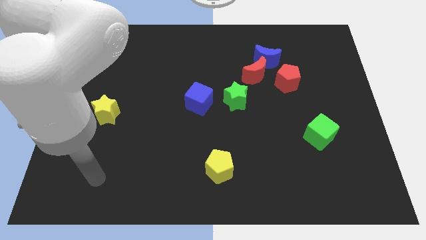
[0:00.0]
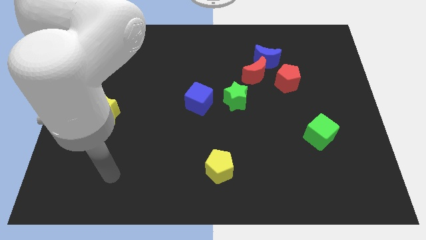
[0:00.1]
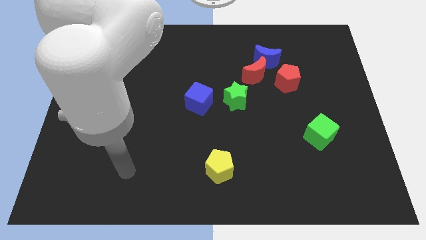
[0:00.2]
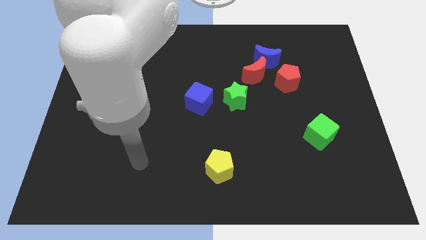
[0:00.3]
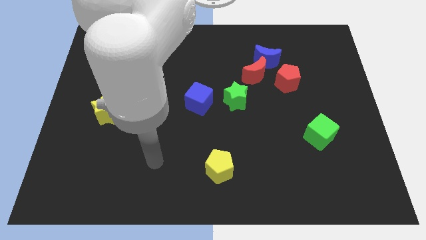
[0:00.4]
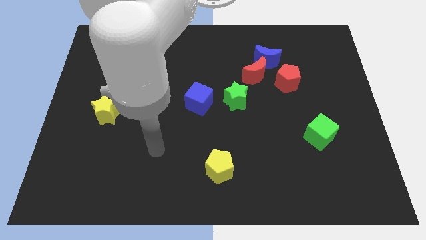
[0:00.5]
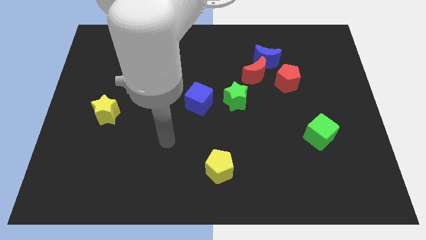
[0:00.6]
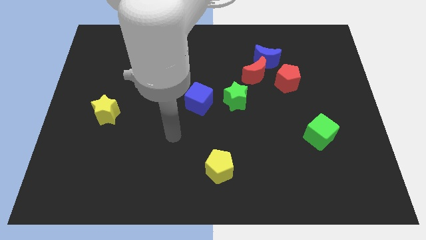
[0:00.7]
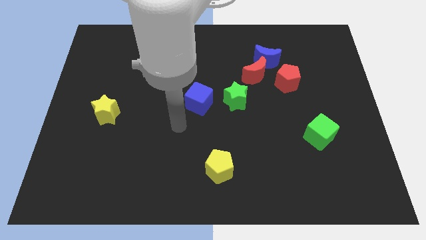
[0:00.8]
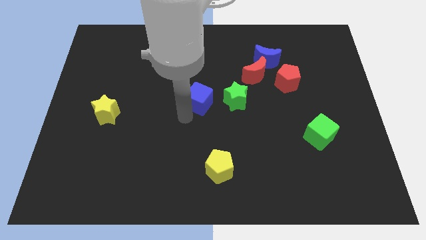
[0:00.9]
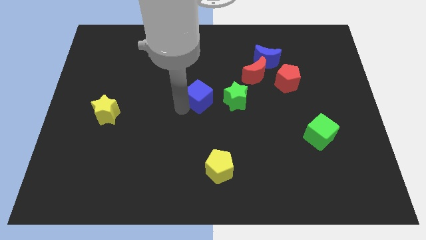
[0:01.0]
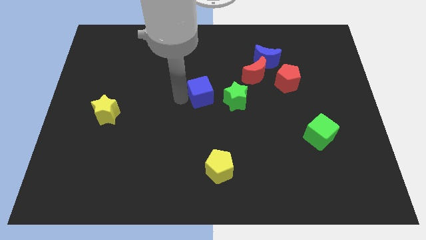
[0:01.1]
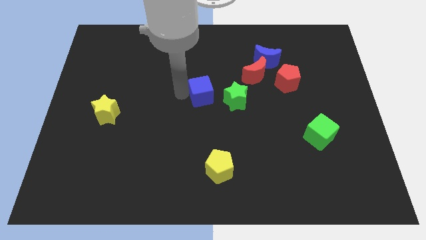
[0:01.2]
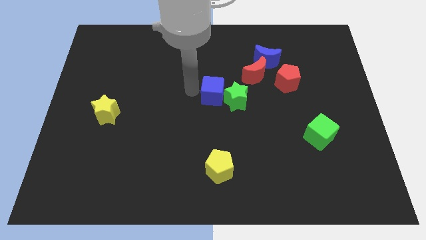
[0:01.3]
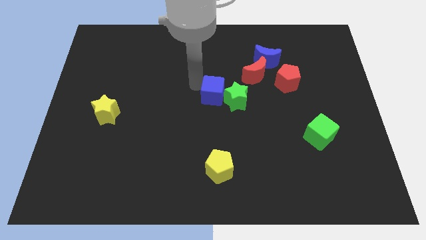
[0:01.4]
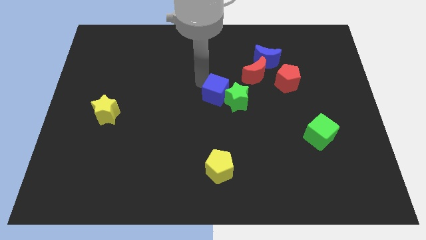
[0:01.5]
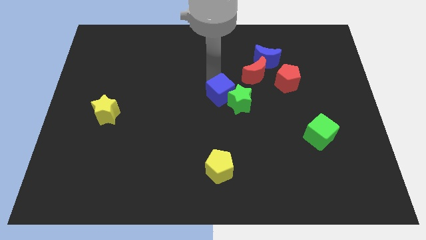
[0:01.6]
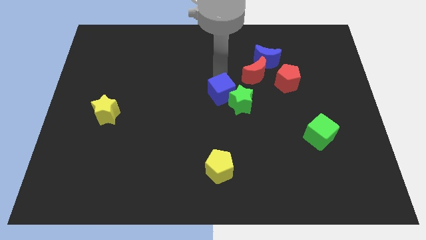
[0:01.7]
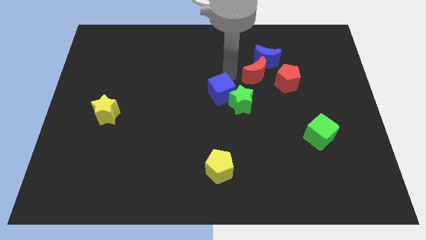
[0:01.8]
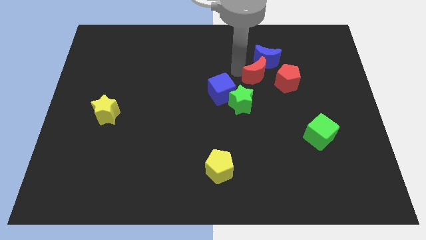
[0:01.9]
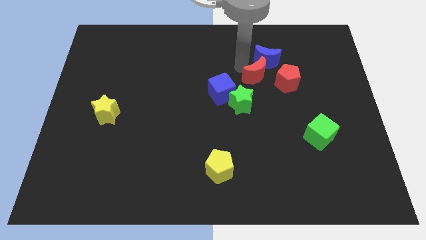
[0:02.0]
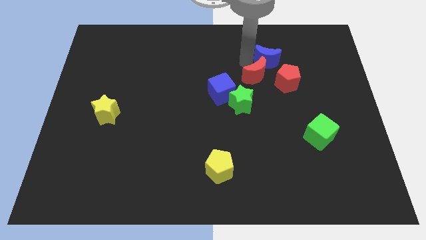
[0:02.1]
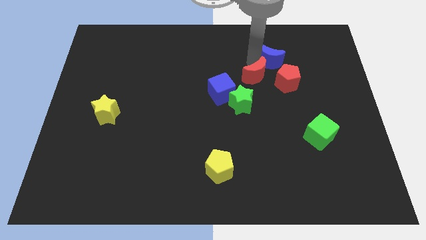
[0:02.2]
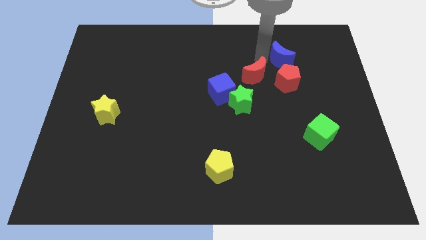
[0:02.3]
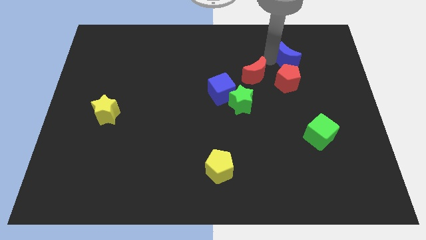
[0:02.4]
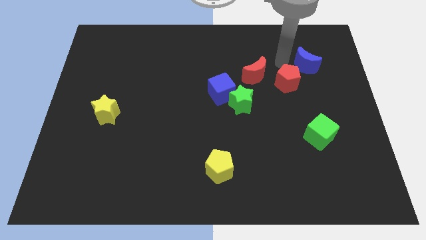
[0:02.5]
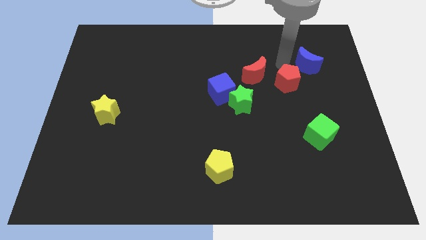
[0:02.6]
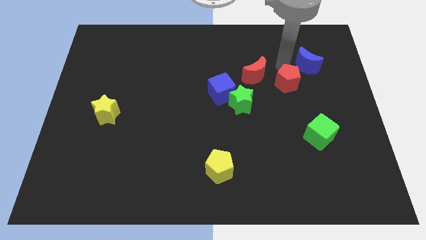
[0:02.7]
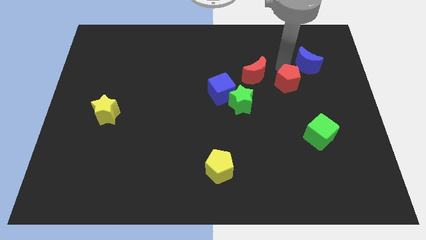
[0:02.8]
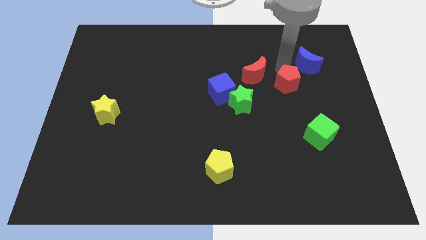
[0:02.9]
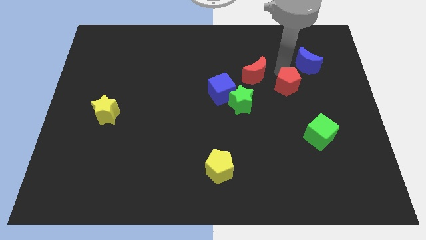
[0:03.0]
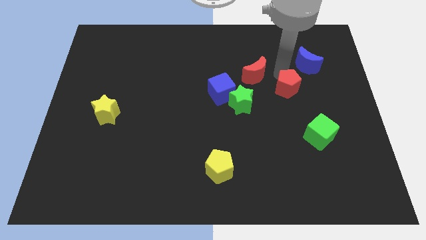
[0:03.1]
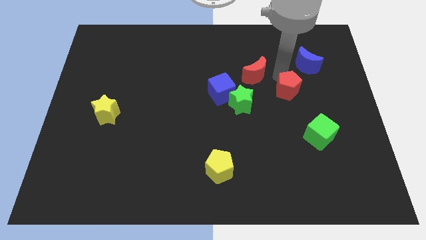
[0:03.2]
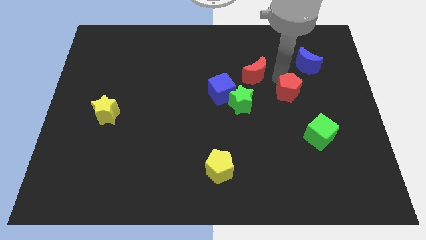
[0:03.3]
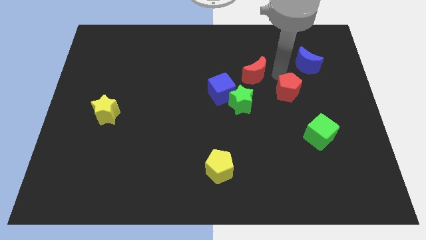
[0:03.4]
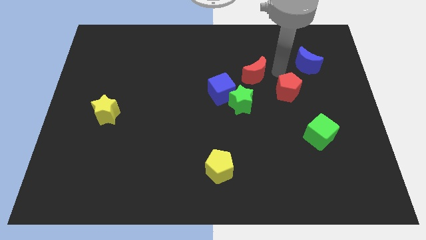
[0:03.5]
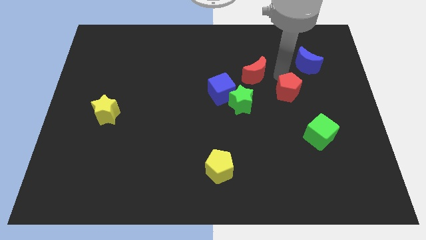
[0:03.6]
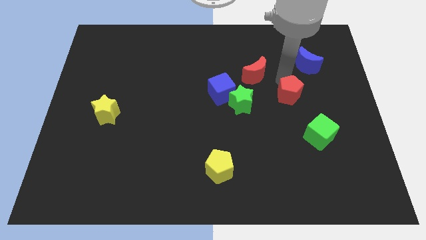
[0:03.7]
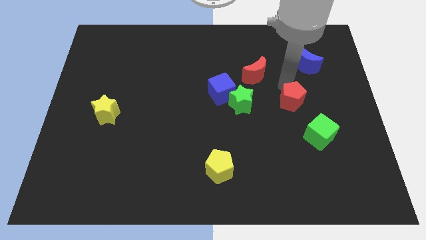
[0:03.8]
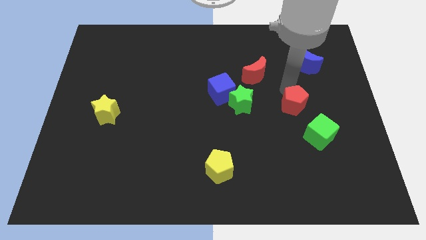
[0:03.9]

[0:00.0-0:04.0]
slightly move the red pentagon downwards

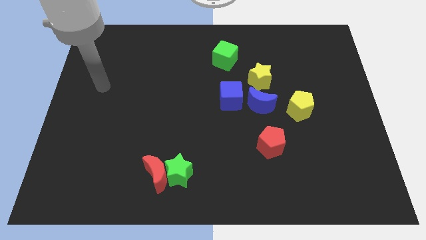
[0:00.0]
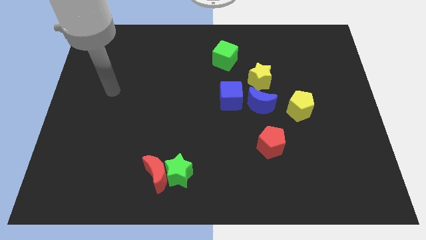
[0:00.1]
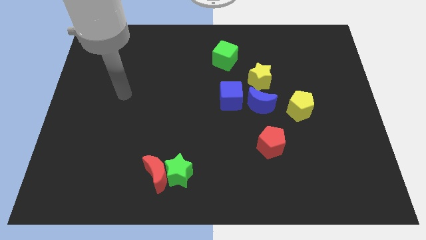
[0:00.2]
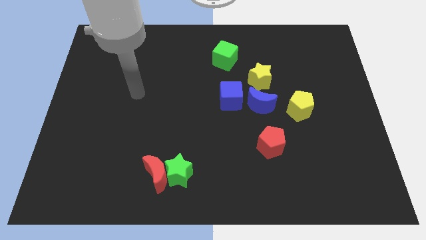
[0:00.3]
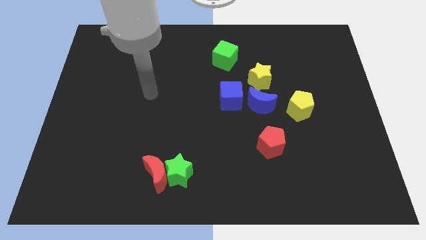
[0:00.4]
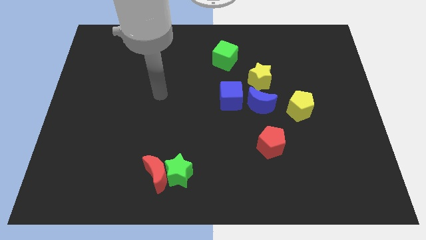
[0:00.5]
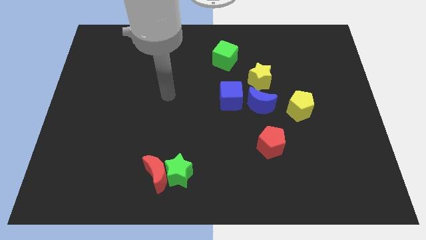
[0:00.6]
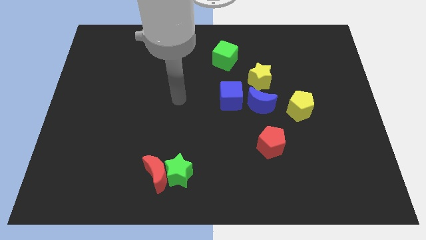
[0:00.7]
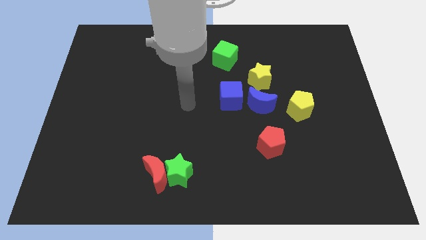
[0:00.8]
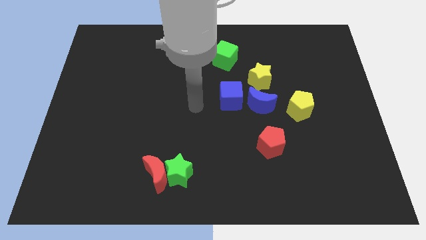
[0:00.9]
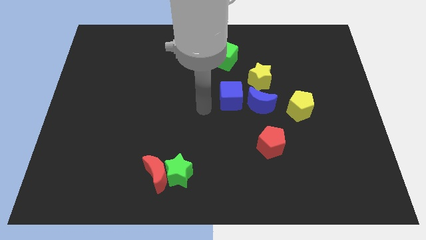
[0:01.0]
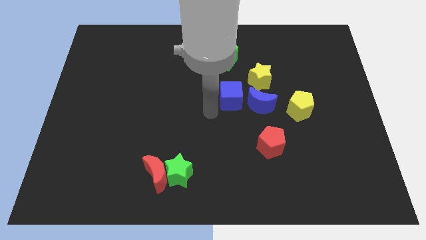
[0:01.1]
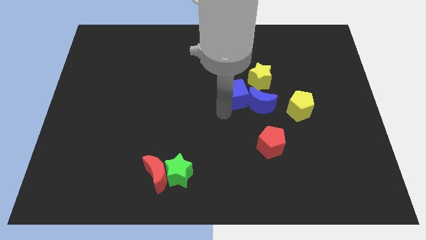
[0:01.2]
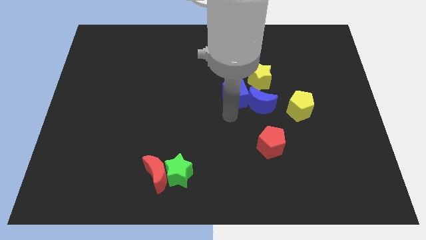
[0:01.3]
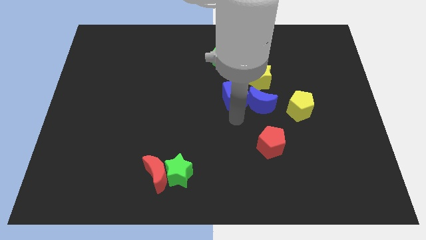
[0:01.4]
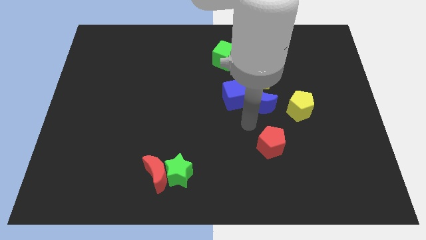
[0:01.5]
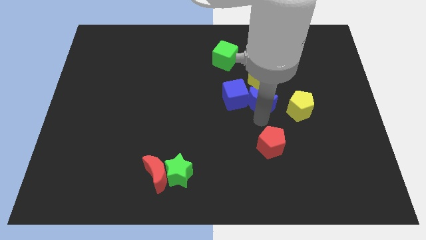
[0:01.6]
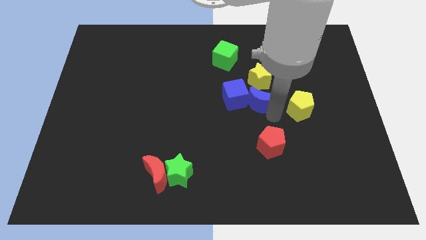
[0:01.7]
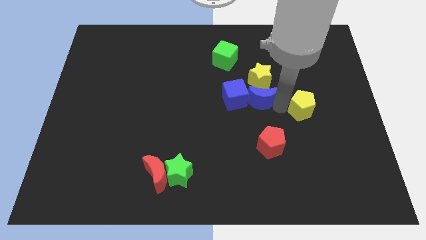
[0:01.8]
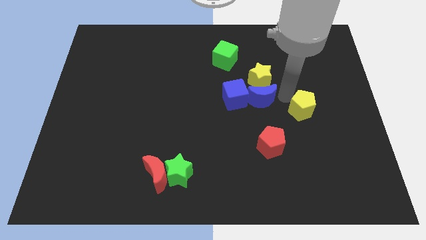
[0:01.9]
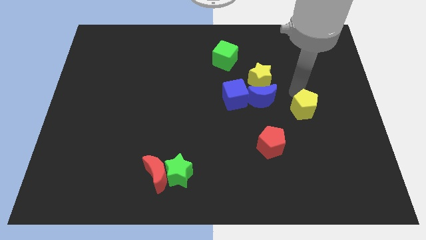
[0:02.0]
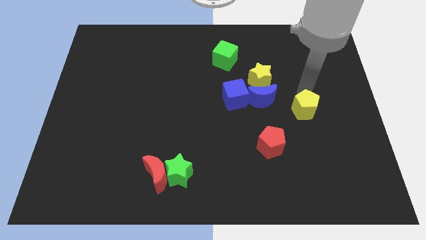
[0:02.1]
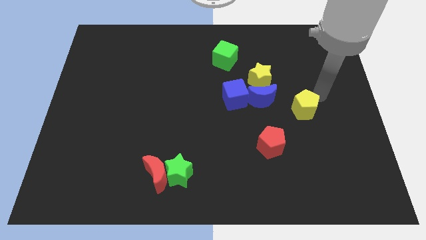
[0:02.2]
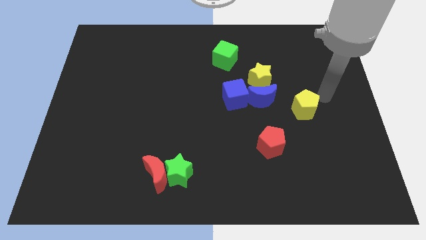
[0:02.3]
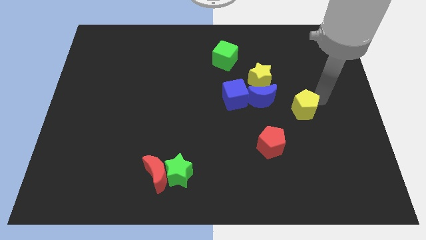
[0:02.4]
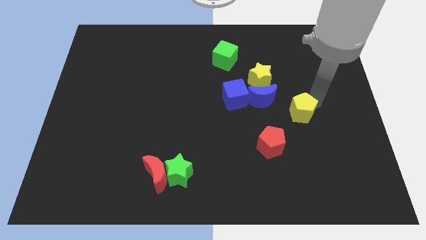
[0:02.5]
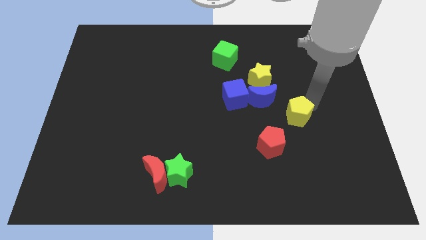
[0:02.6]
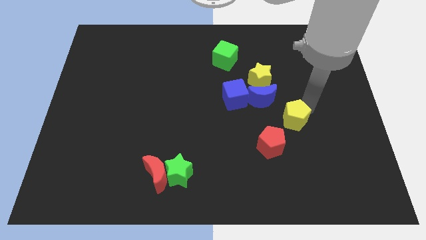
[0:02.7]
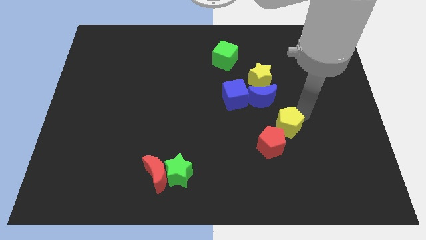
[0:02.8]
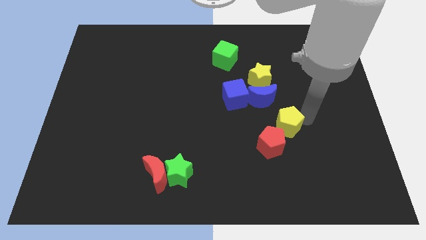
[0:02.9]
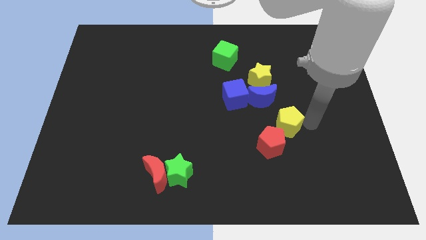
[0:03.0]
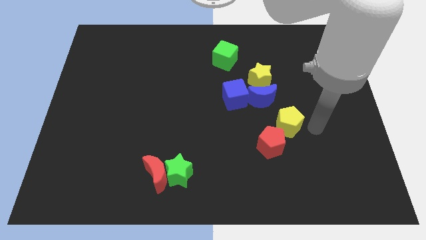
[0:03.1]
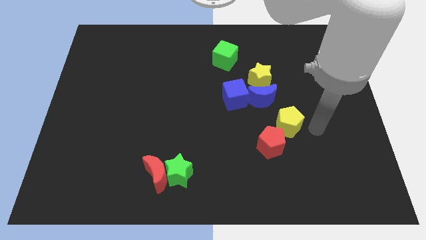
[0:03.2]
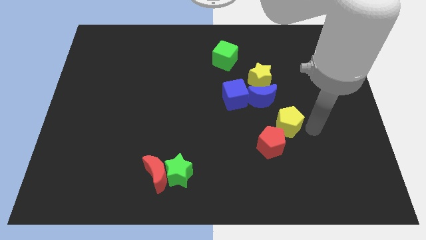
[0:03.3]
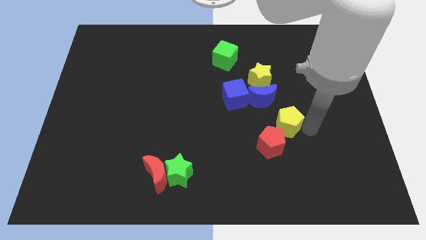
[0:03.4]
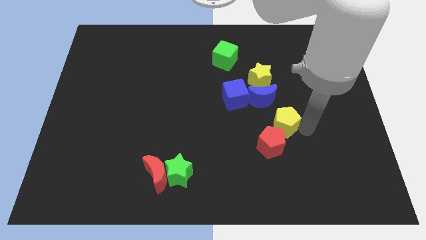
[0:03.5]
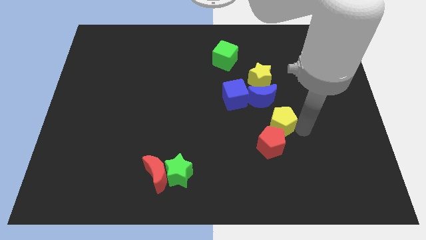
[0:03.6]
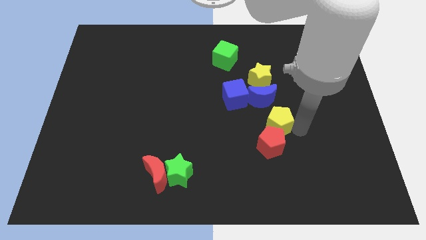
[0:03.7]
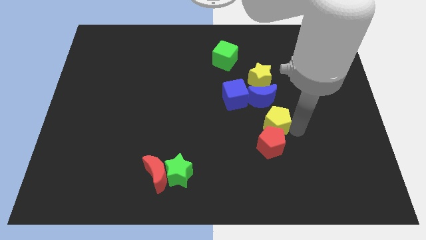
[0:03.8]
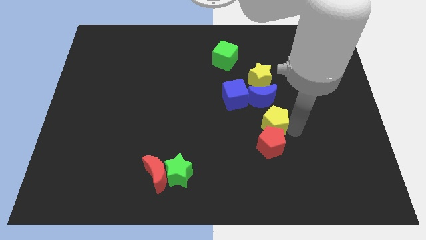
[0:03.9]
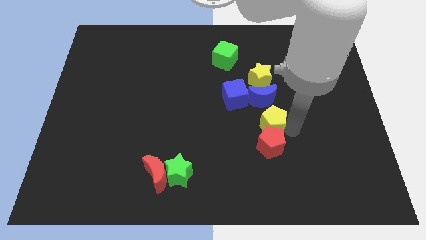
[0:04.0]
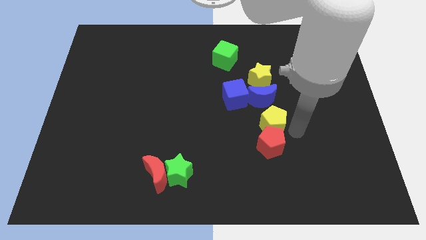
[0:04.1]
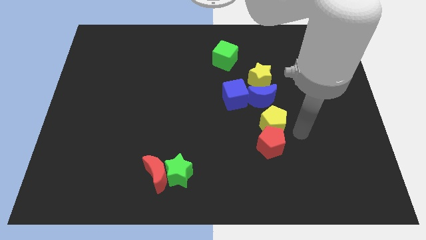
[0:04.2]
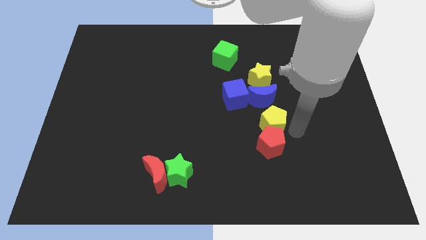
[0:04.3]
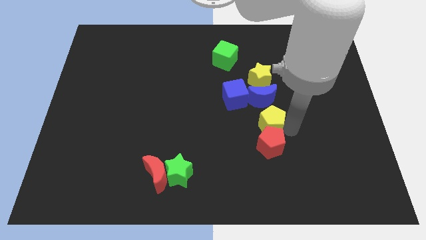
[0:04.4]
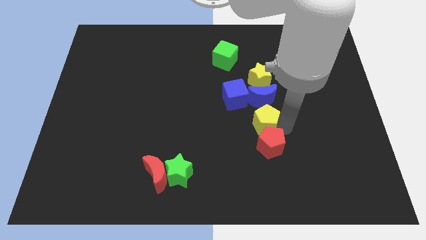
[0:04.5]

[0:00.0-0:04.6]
move the yellow pentagon to the left slightly
